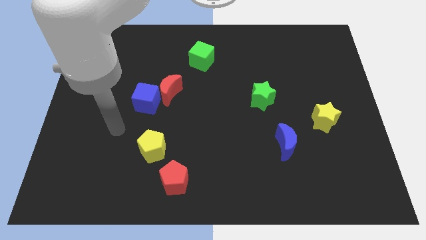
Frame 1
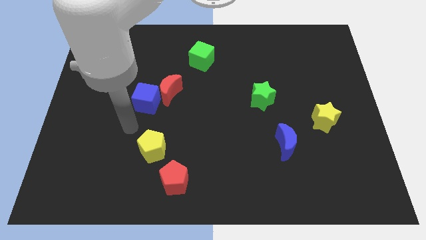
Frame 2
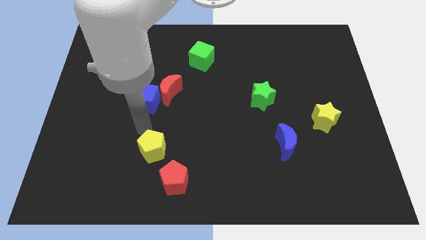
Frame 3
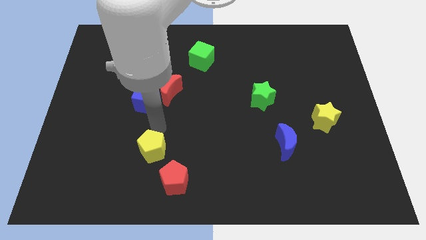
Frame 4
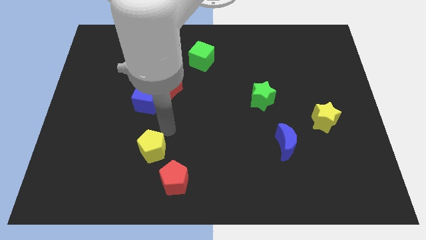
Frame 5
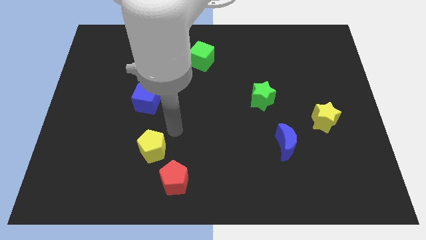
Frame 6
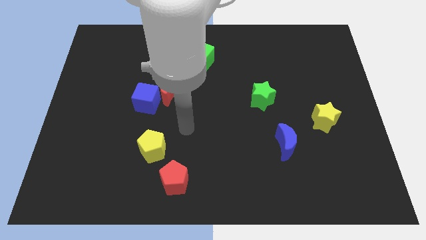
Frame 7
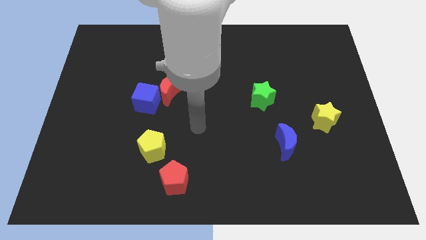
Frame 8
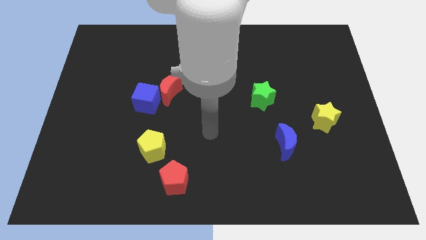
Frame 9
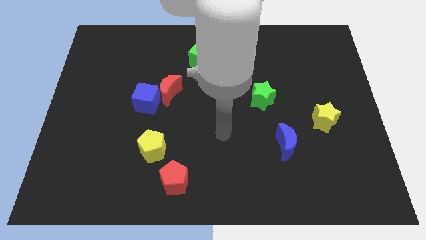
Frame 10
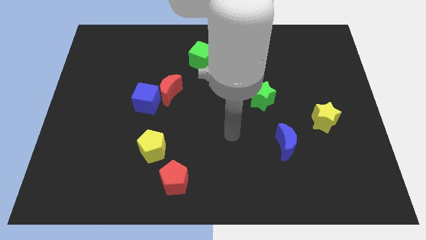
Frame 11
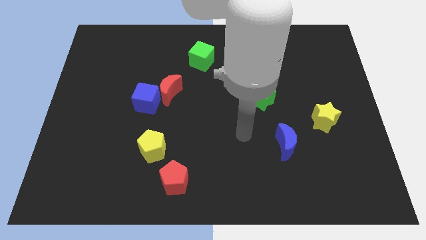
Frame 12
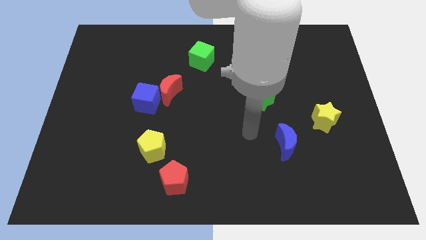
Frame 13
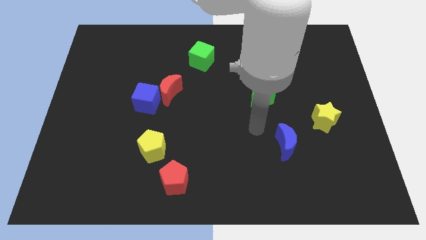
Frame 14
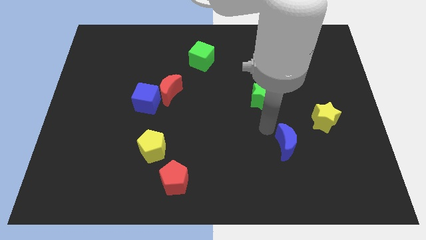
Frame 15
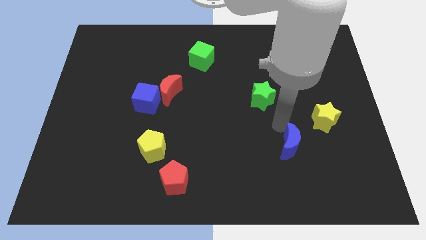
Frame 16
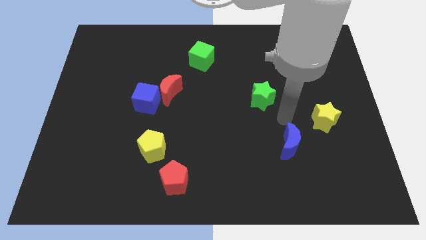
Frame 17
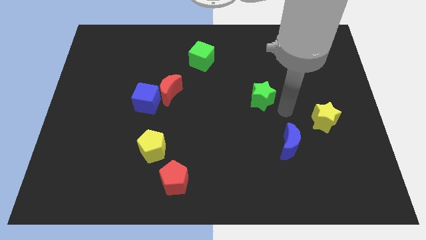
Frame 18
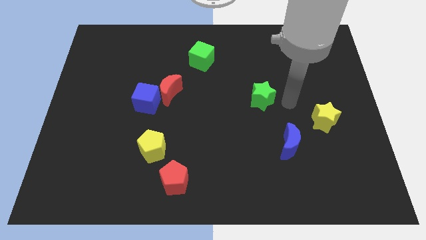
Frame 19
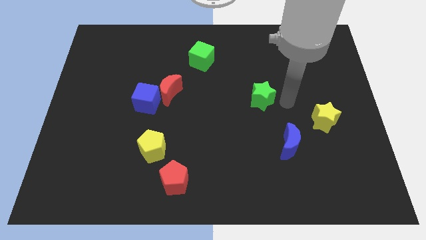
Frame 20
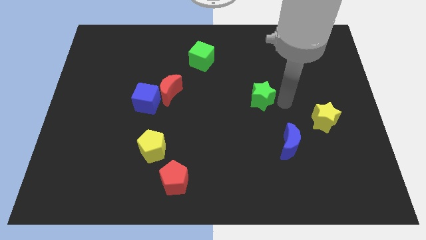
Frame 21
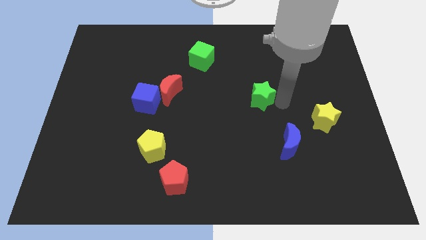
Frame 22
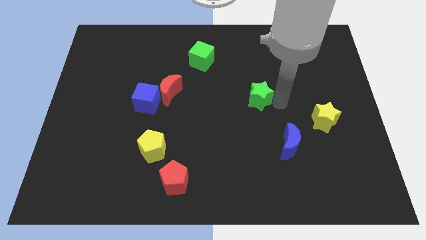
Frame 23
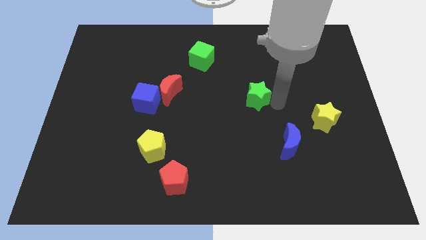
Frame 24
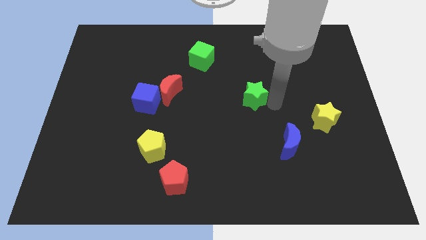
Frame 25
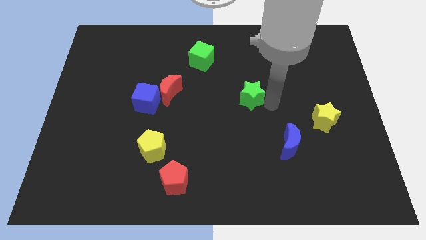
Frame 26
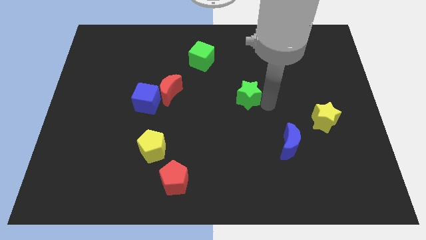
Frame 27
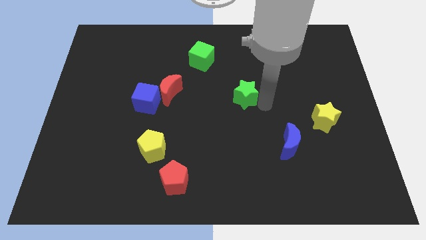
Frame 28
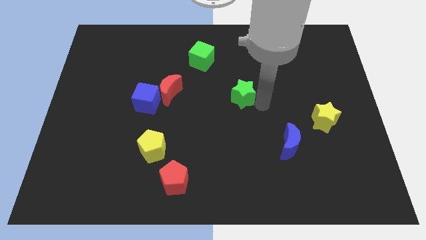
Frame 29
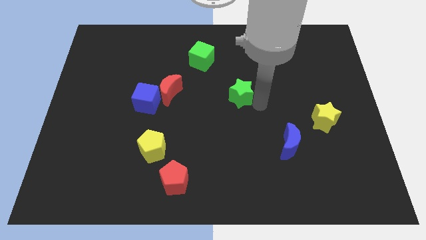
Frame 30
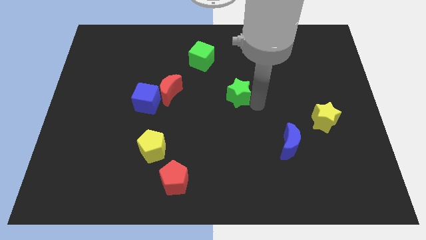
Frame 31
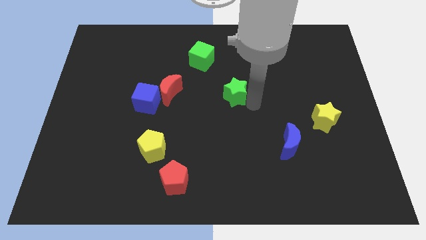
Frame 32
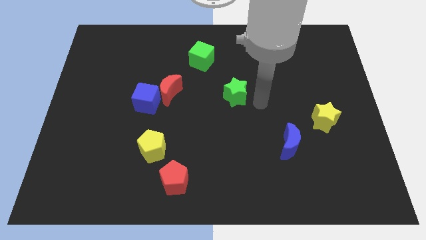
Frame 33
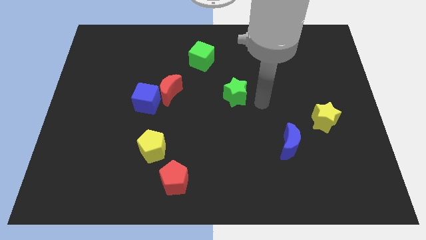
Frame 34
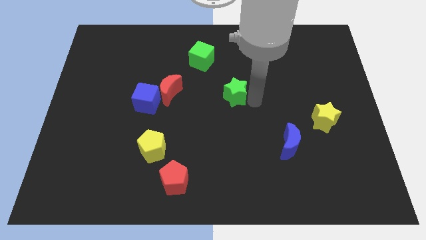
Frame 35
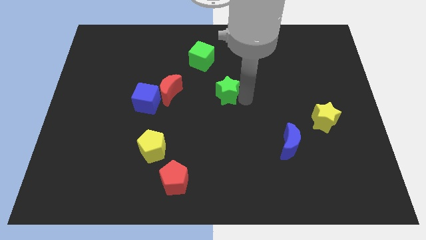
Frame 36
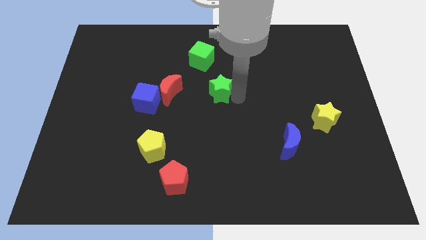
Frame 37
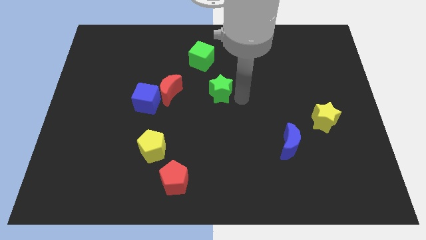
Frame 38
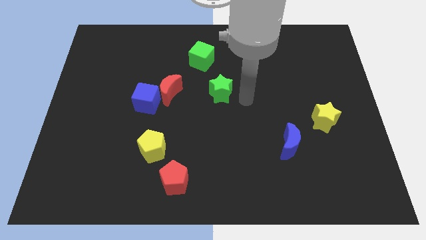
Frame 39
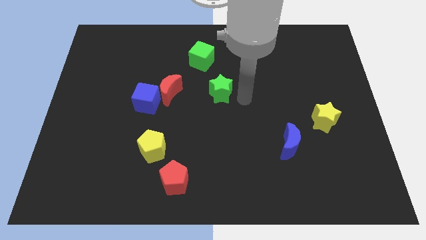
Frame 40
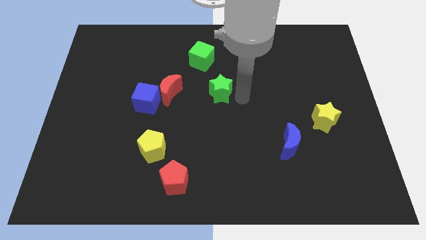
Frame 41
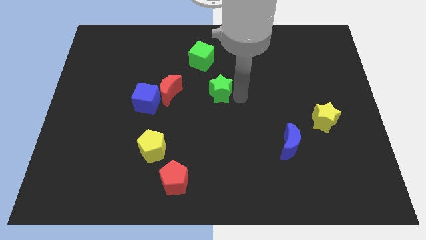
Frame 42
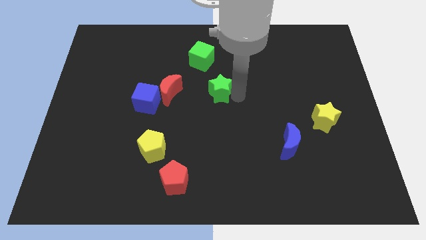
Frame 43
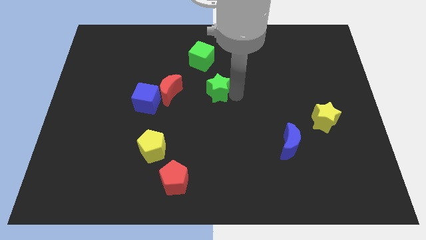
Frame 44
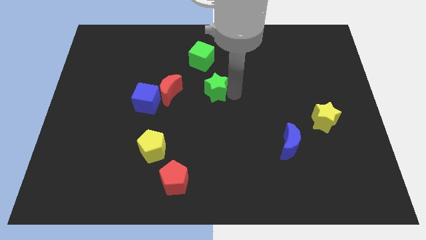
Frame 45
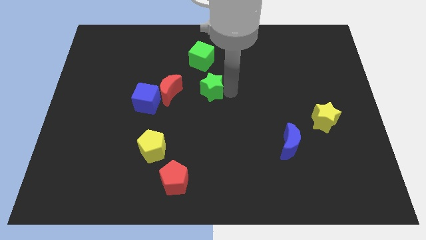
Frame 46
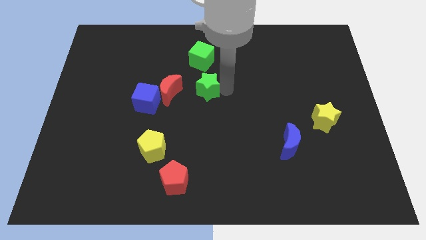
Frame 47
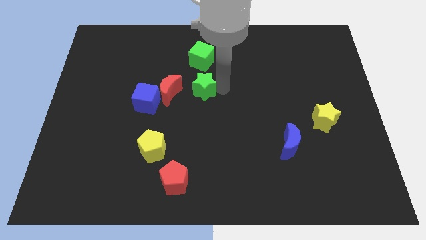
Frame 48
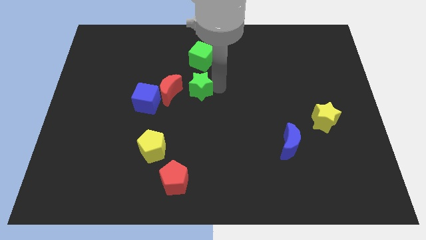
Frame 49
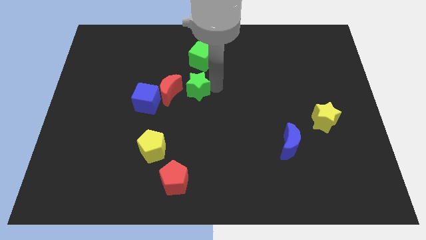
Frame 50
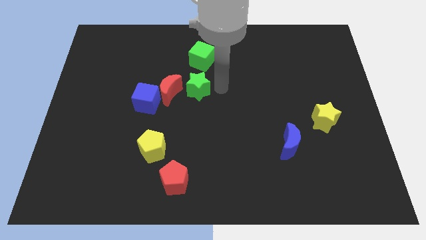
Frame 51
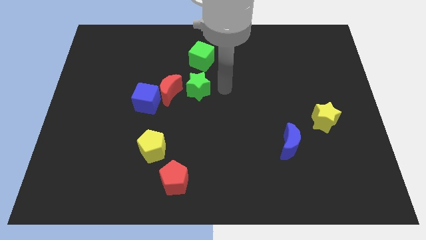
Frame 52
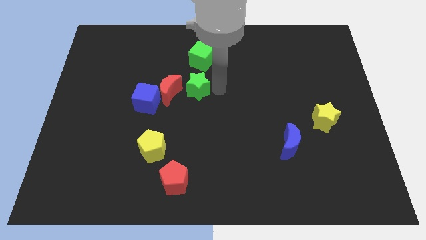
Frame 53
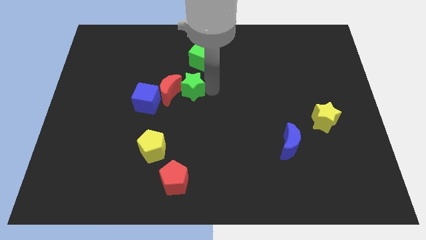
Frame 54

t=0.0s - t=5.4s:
put the green star close to the red moon

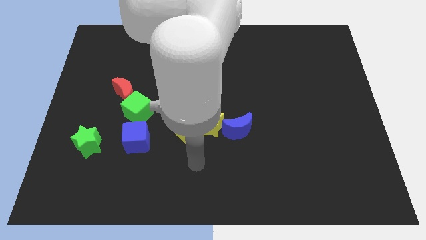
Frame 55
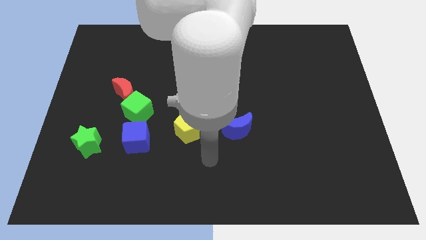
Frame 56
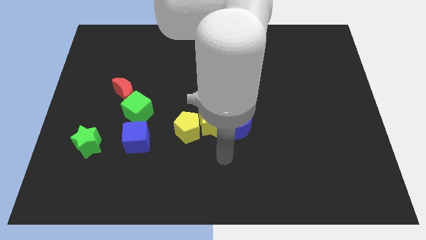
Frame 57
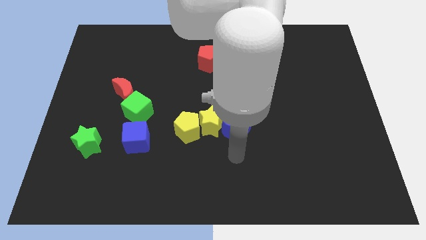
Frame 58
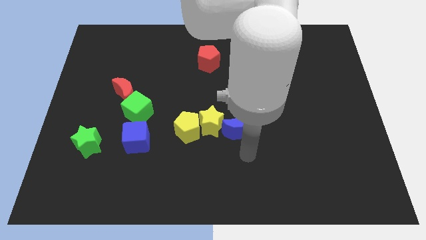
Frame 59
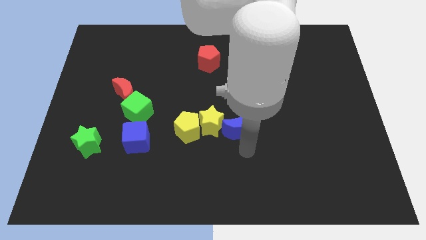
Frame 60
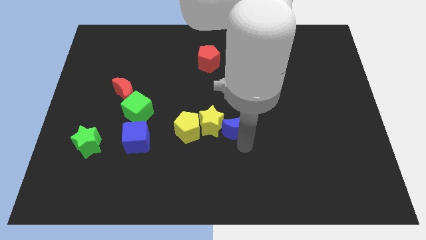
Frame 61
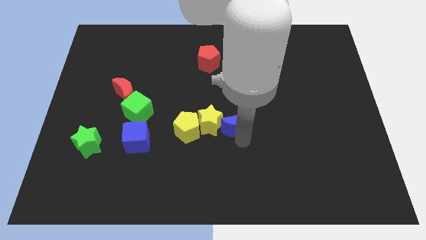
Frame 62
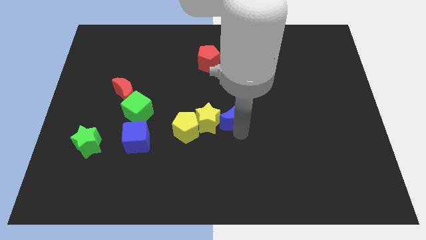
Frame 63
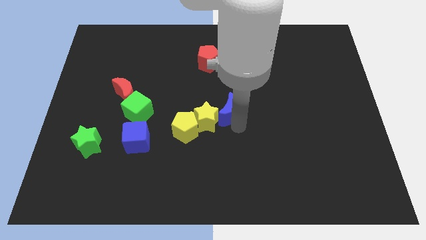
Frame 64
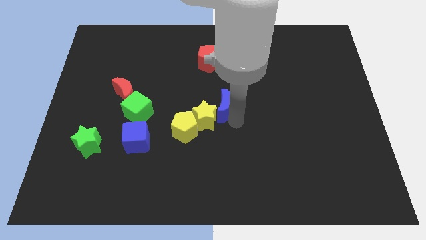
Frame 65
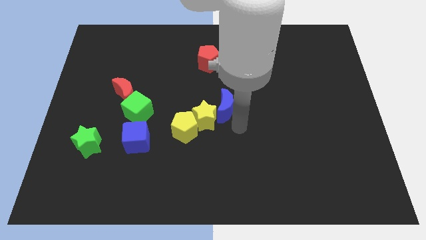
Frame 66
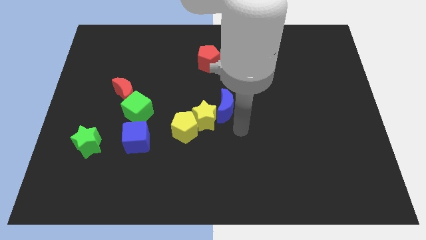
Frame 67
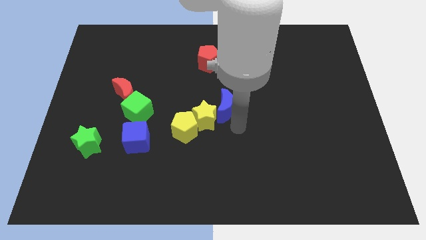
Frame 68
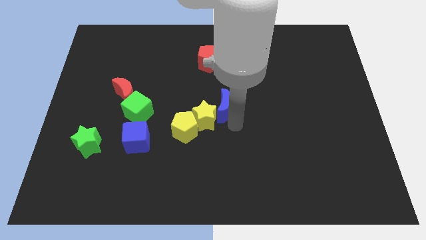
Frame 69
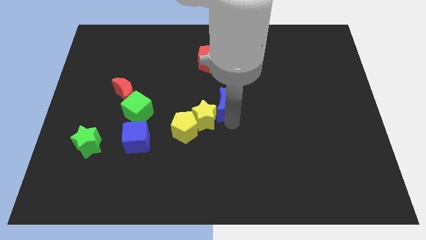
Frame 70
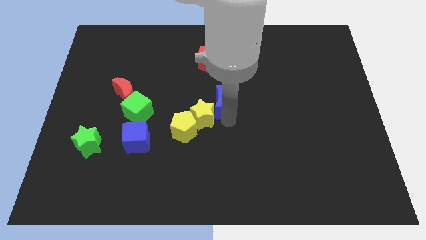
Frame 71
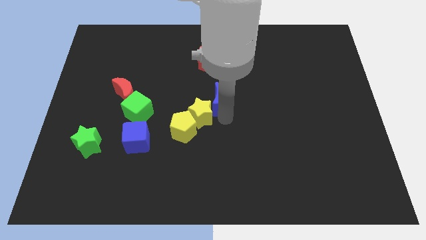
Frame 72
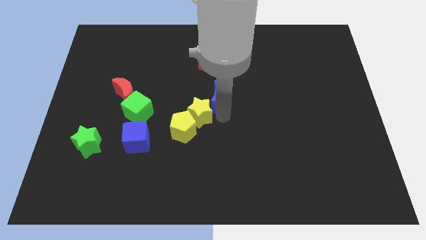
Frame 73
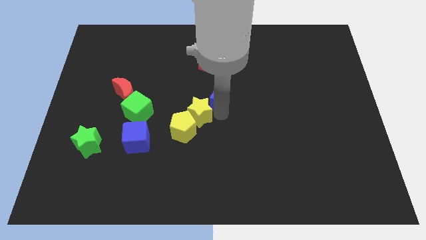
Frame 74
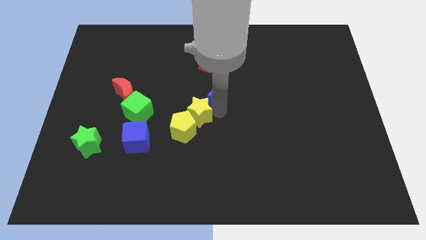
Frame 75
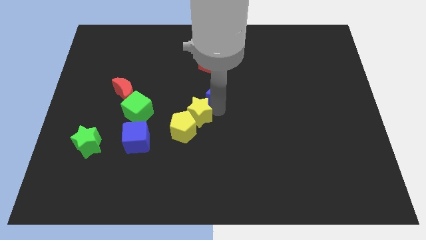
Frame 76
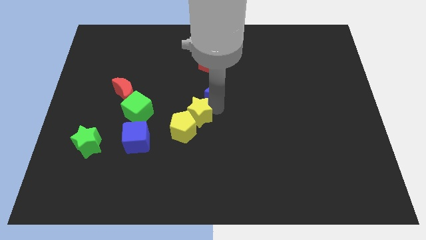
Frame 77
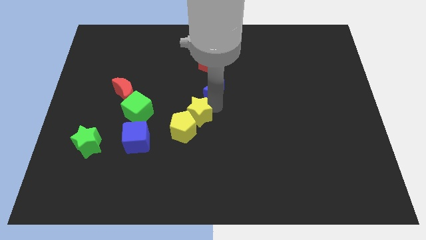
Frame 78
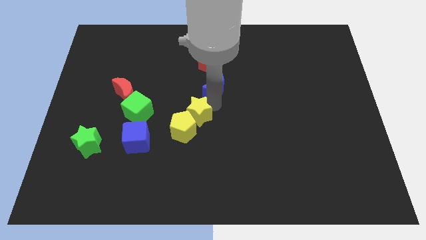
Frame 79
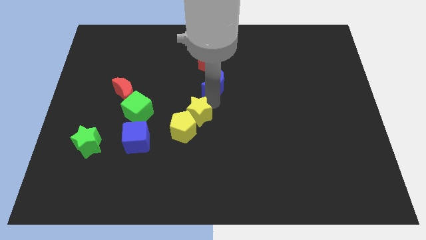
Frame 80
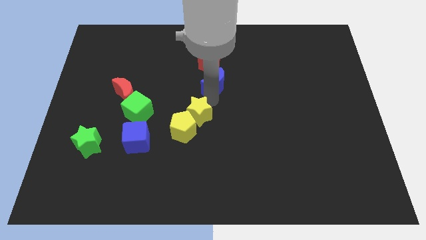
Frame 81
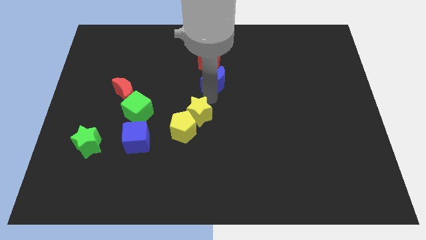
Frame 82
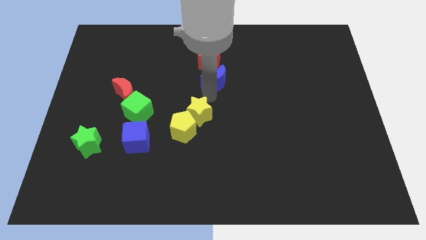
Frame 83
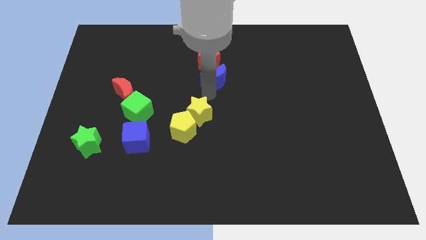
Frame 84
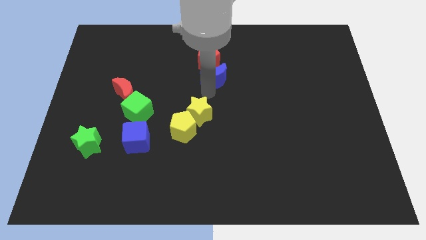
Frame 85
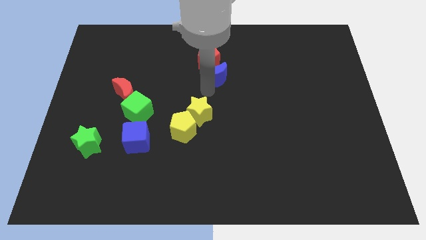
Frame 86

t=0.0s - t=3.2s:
put the blue moon to the red pentagon
